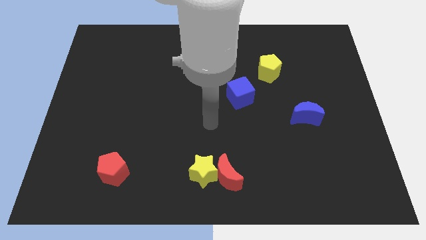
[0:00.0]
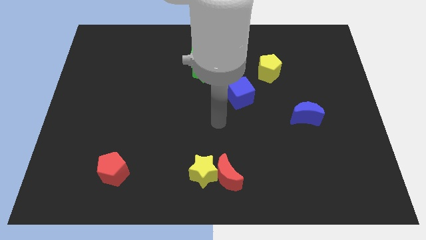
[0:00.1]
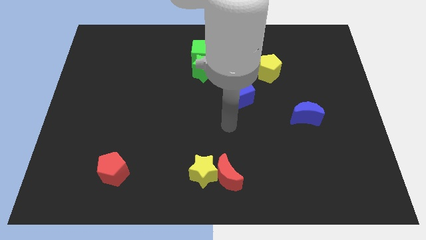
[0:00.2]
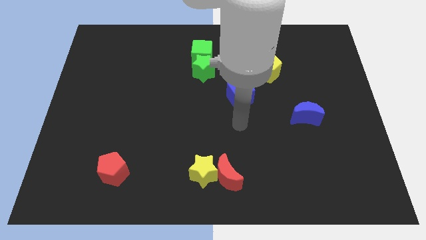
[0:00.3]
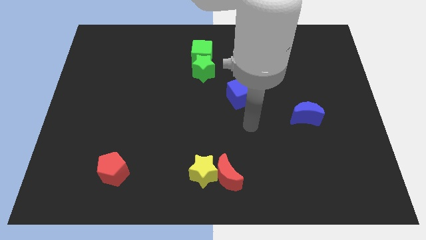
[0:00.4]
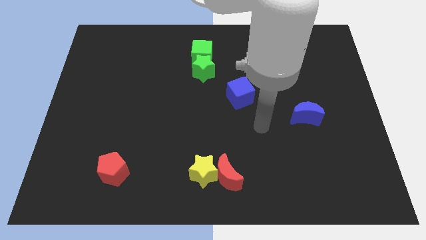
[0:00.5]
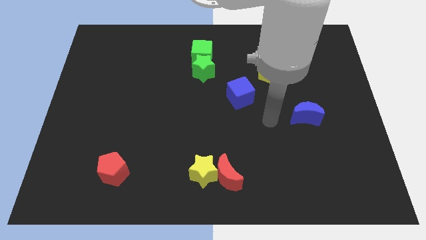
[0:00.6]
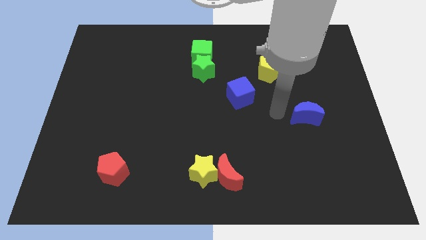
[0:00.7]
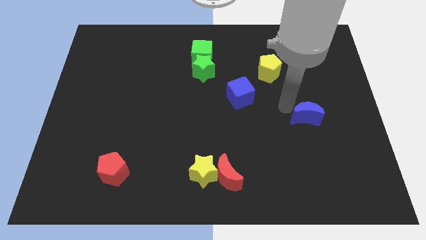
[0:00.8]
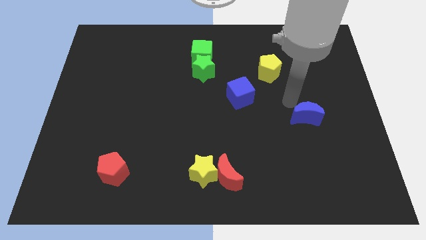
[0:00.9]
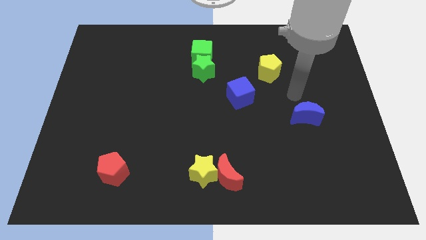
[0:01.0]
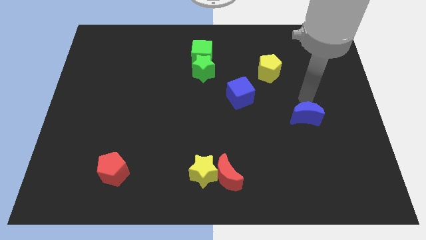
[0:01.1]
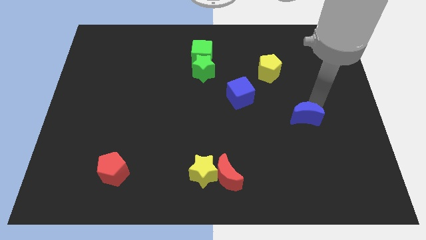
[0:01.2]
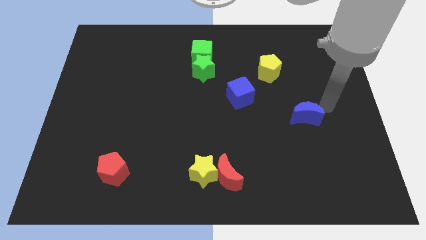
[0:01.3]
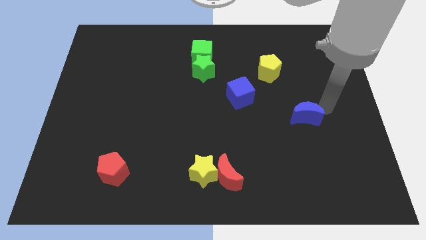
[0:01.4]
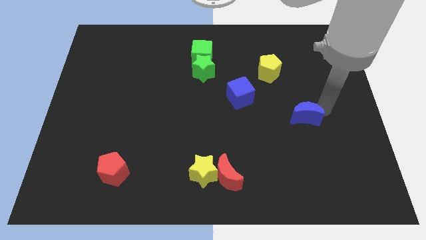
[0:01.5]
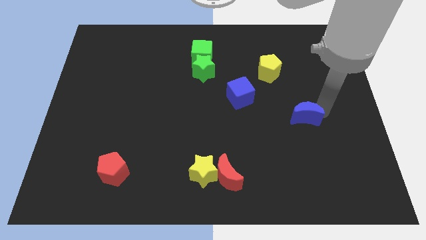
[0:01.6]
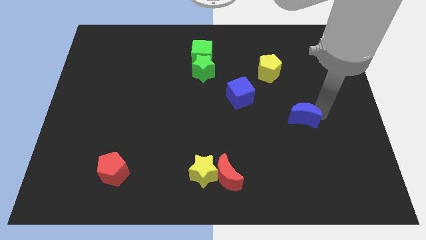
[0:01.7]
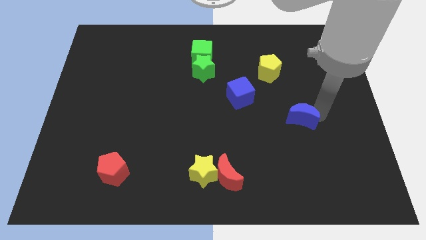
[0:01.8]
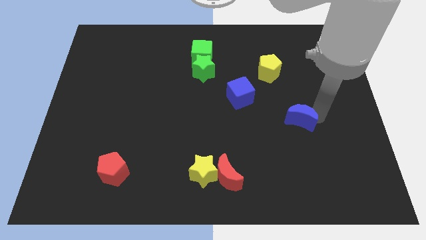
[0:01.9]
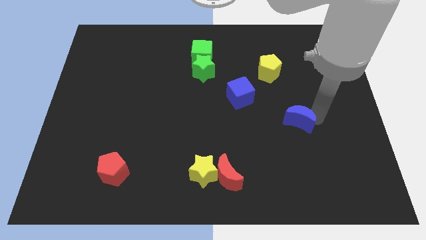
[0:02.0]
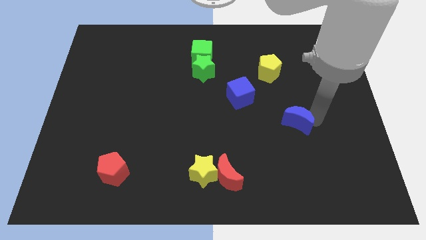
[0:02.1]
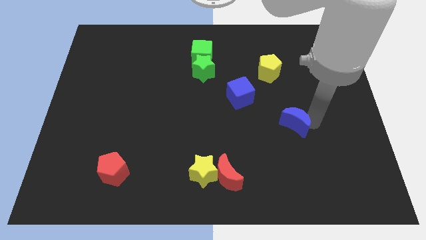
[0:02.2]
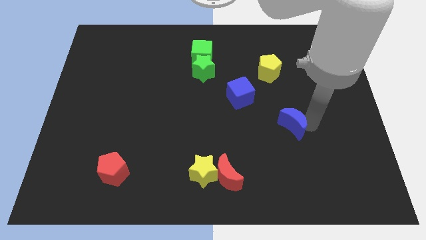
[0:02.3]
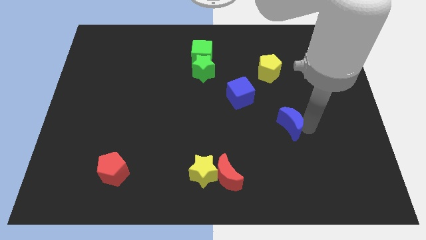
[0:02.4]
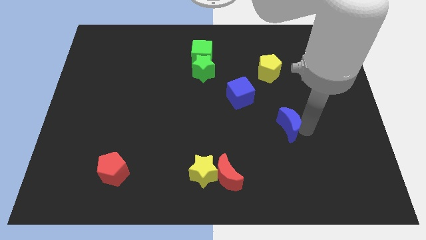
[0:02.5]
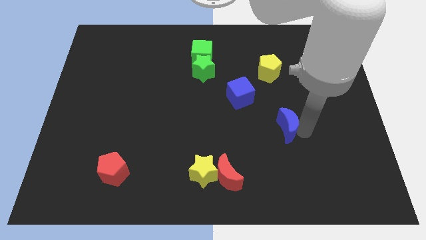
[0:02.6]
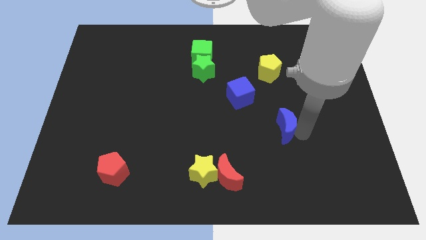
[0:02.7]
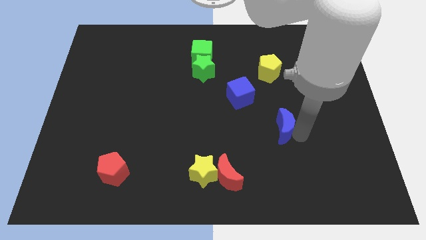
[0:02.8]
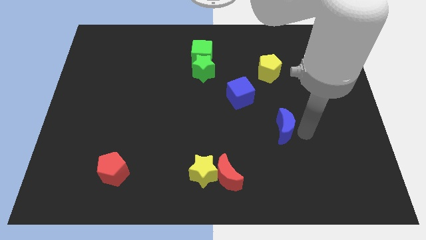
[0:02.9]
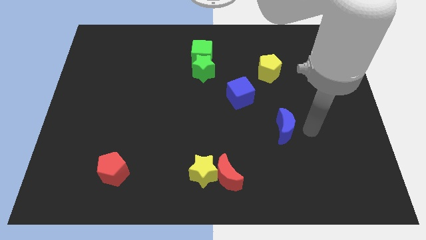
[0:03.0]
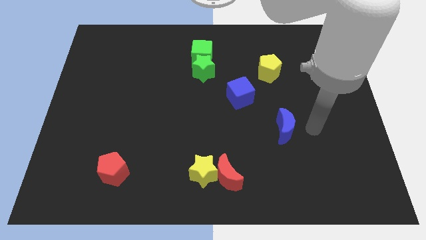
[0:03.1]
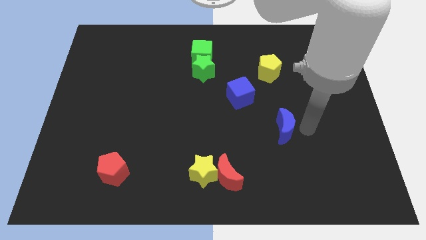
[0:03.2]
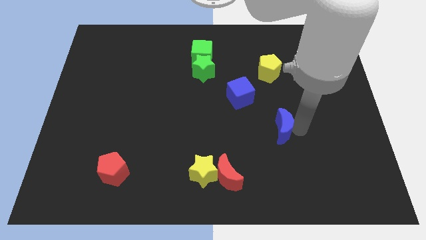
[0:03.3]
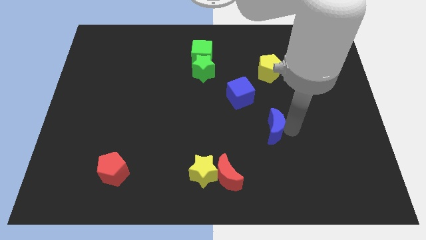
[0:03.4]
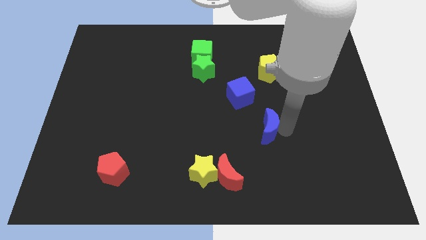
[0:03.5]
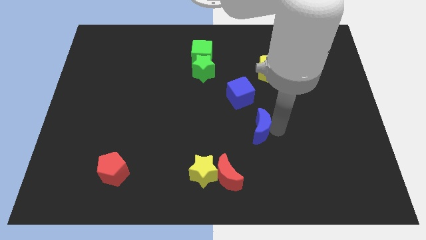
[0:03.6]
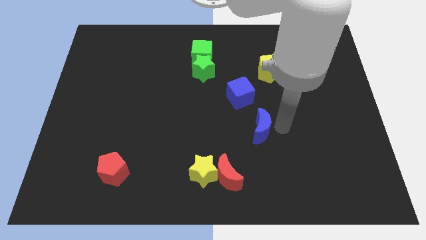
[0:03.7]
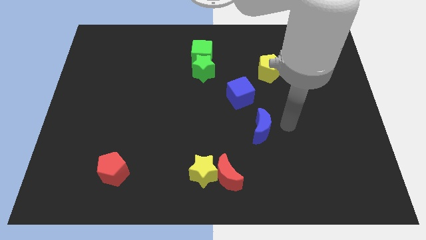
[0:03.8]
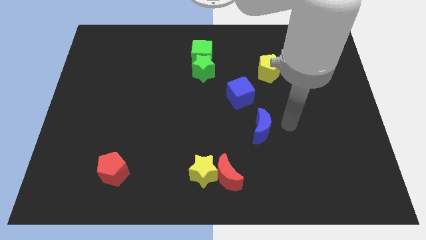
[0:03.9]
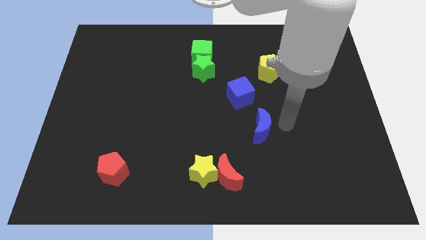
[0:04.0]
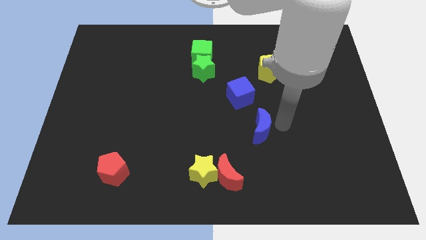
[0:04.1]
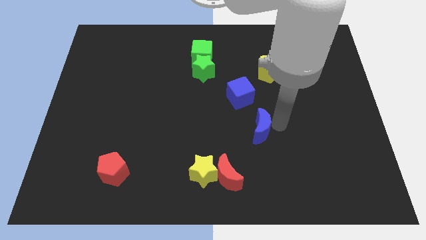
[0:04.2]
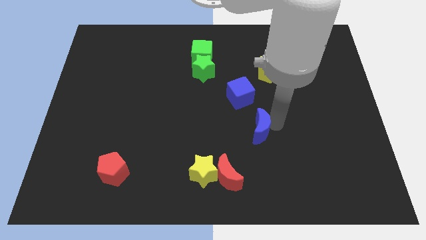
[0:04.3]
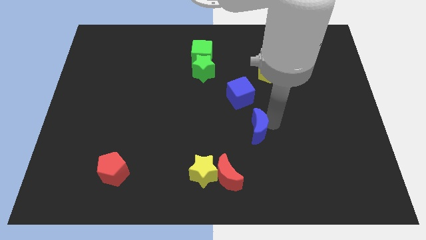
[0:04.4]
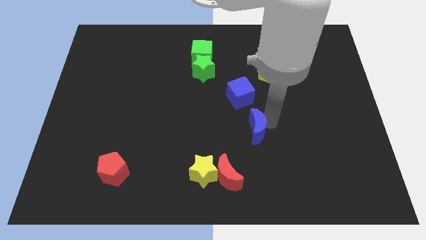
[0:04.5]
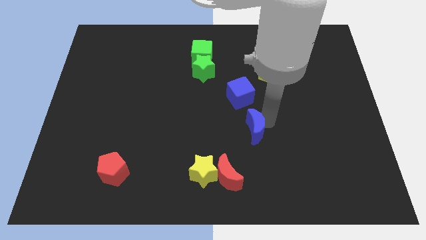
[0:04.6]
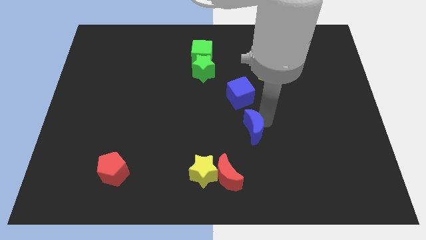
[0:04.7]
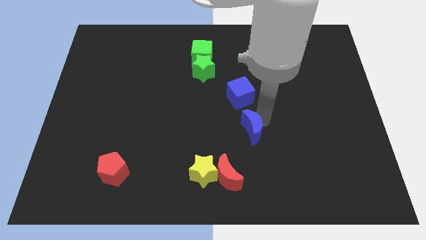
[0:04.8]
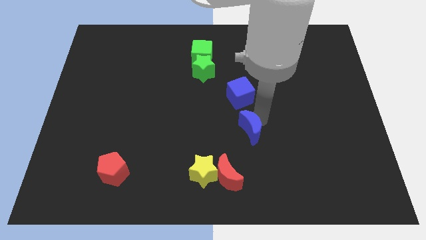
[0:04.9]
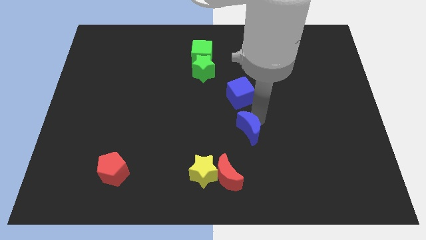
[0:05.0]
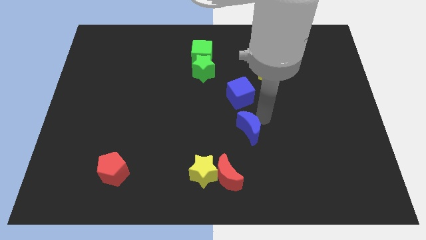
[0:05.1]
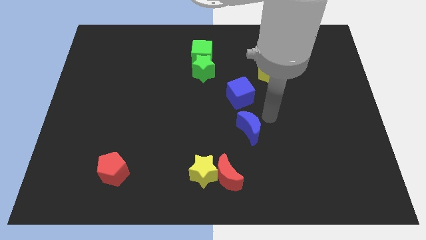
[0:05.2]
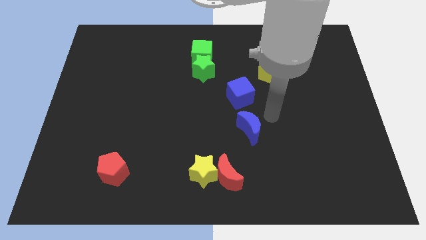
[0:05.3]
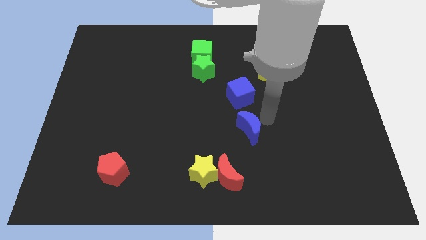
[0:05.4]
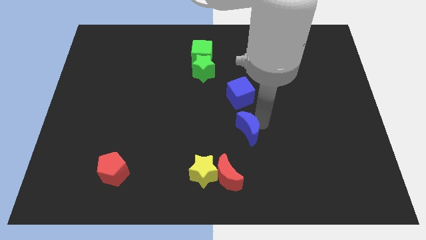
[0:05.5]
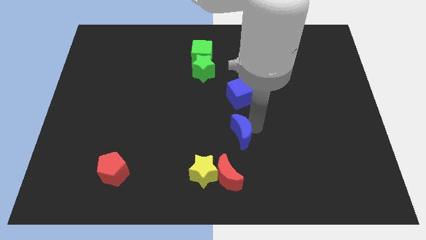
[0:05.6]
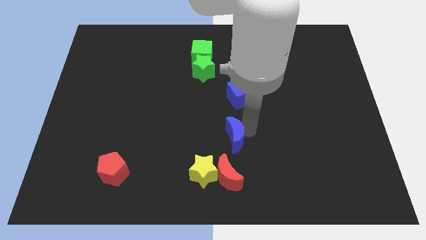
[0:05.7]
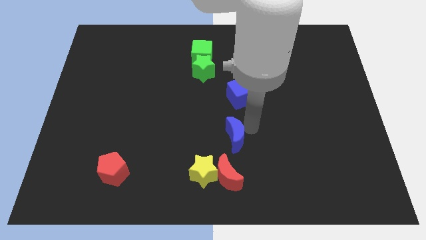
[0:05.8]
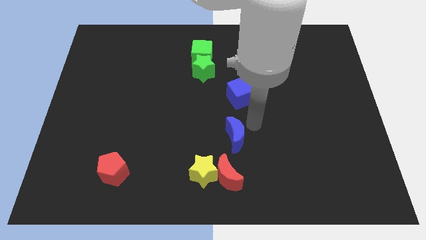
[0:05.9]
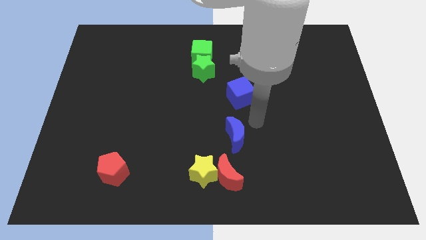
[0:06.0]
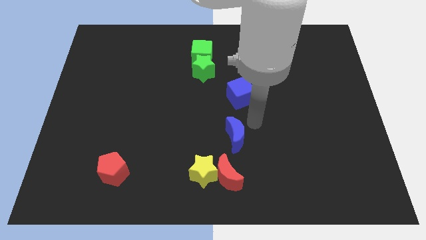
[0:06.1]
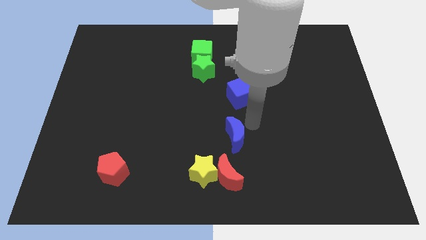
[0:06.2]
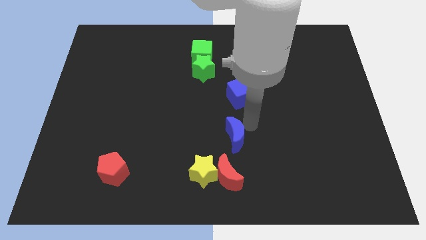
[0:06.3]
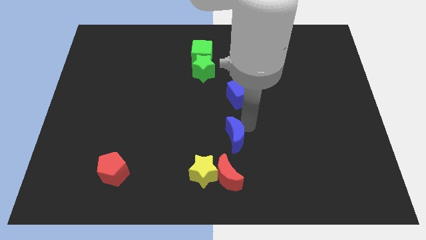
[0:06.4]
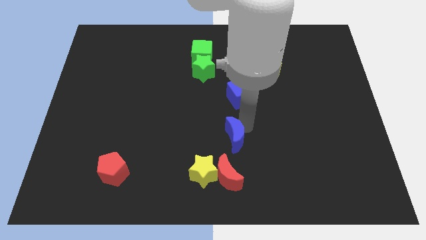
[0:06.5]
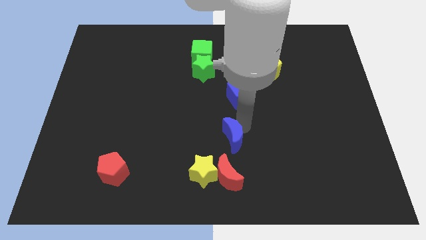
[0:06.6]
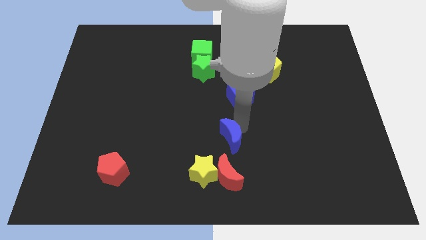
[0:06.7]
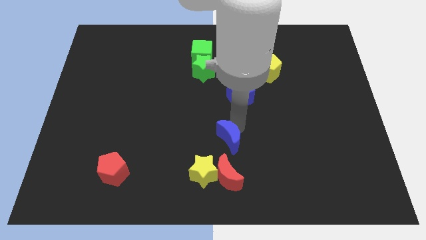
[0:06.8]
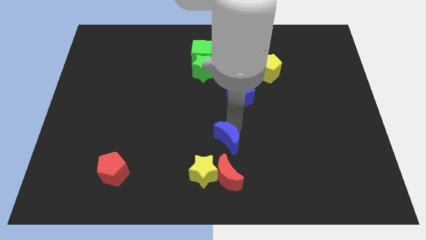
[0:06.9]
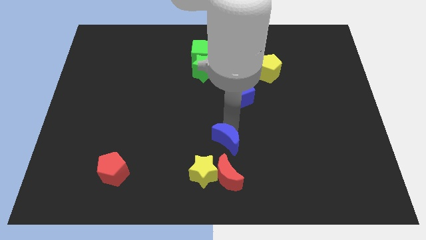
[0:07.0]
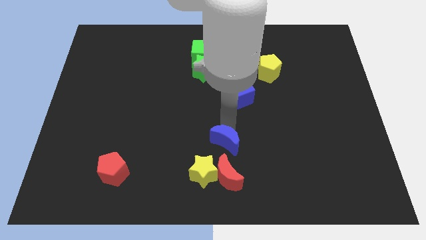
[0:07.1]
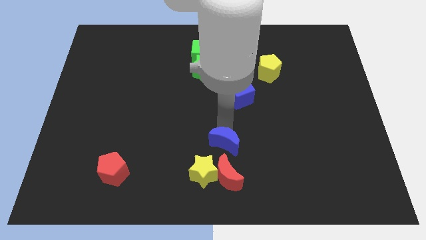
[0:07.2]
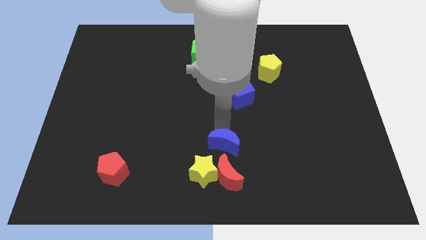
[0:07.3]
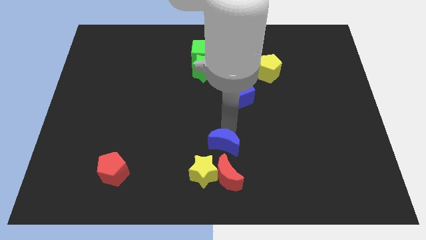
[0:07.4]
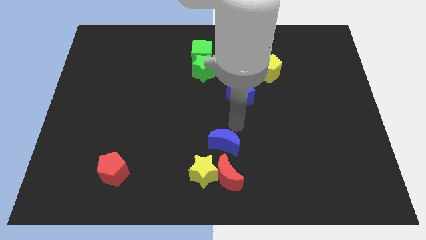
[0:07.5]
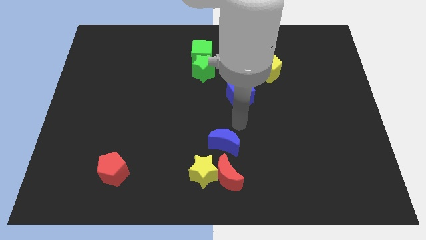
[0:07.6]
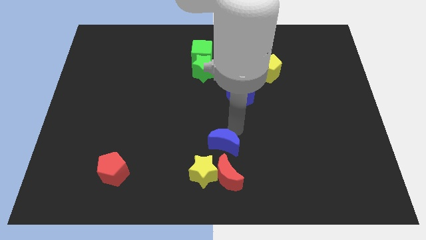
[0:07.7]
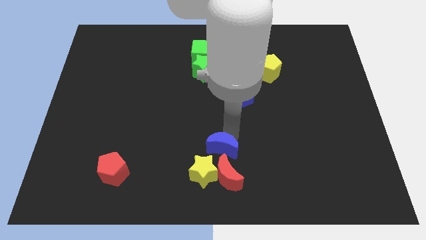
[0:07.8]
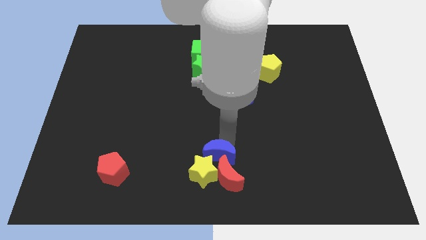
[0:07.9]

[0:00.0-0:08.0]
move the blue moon to the yellow star
